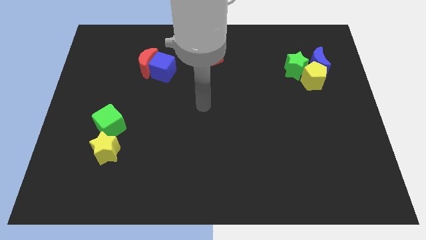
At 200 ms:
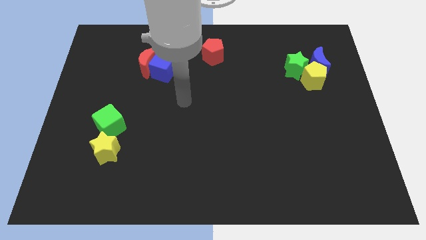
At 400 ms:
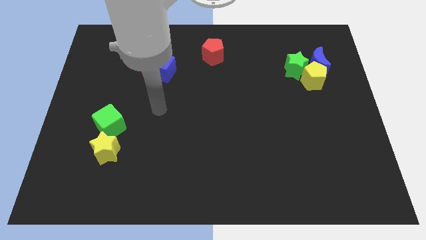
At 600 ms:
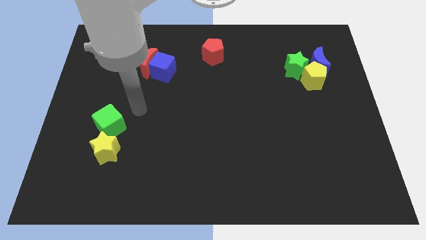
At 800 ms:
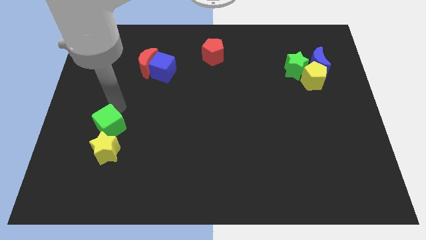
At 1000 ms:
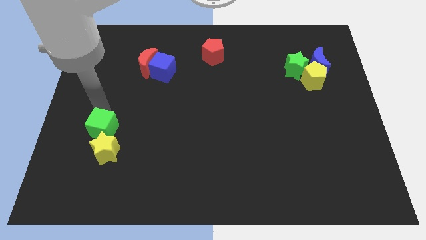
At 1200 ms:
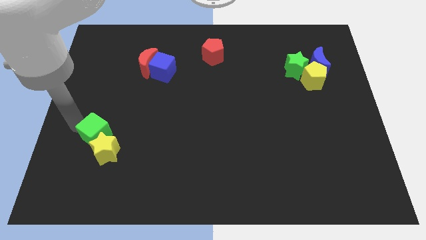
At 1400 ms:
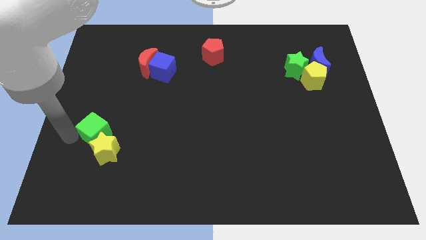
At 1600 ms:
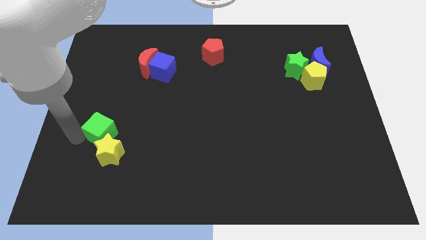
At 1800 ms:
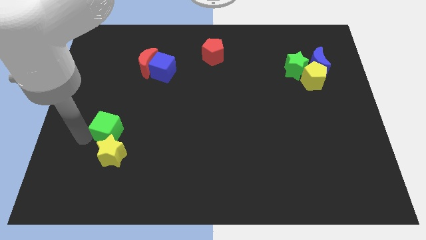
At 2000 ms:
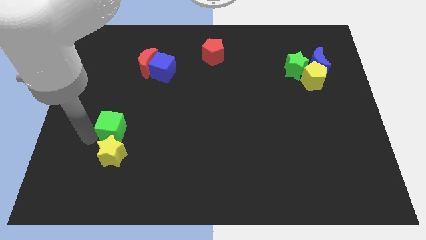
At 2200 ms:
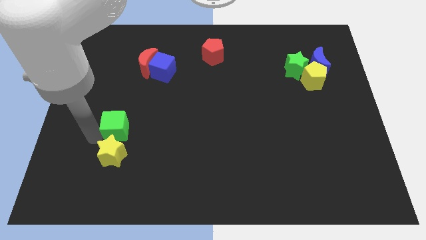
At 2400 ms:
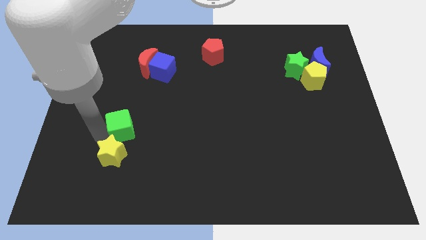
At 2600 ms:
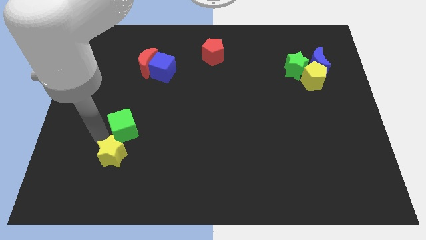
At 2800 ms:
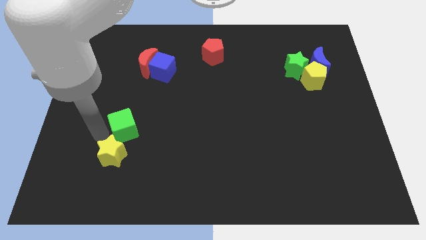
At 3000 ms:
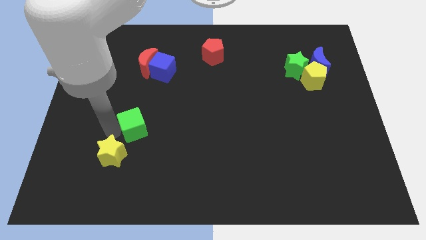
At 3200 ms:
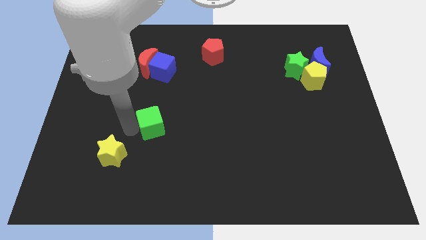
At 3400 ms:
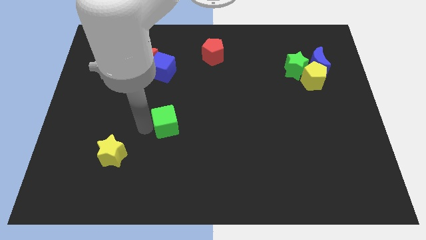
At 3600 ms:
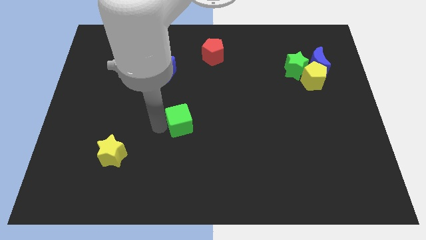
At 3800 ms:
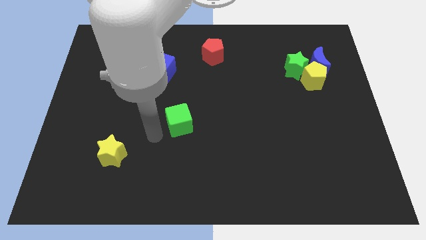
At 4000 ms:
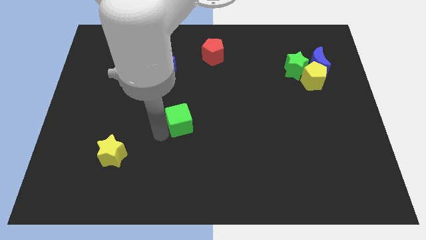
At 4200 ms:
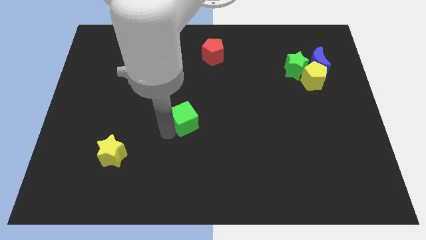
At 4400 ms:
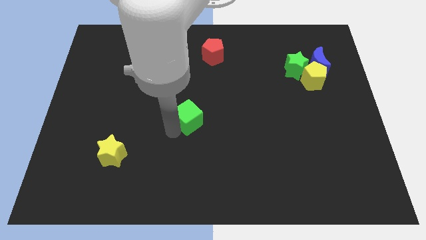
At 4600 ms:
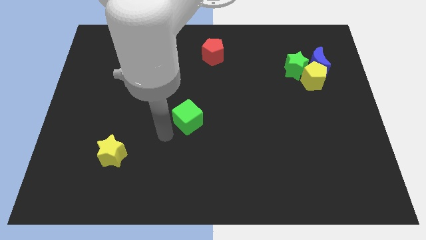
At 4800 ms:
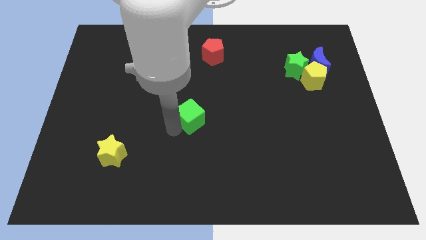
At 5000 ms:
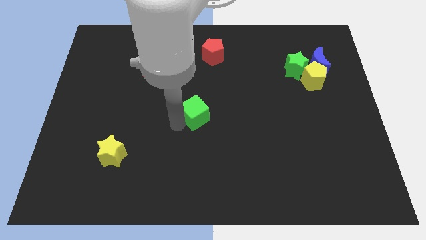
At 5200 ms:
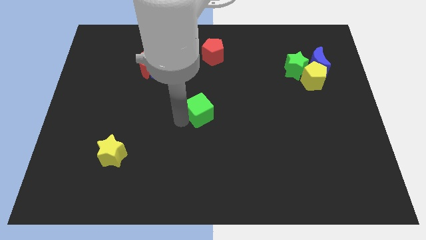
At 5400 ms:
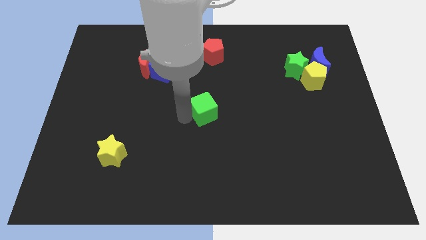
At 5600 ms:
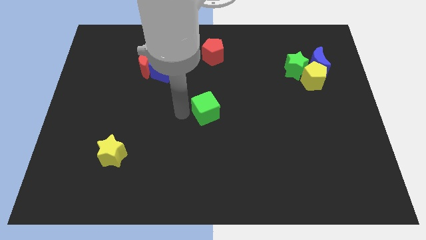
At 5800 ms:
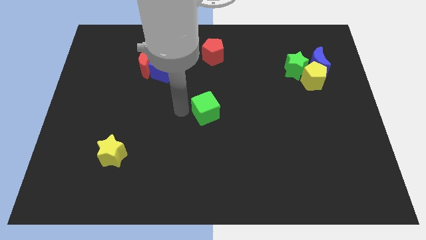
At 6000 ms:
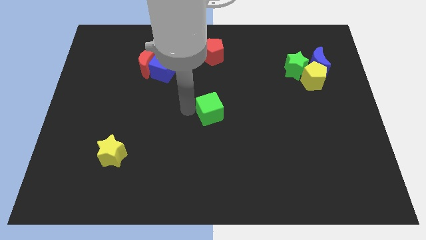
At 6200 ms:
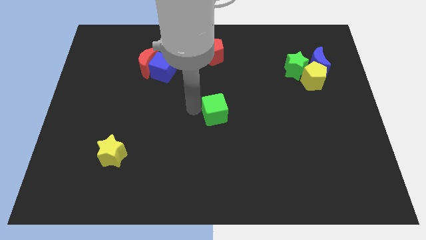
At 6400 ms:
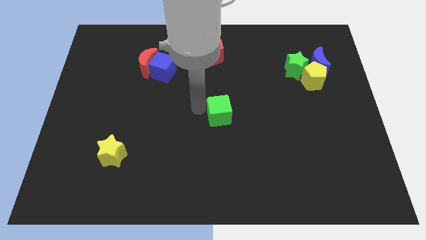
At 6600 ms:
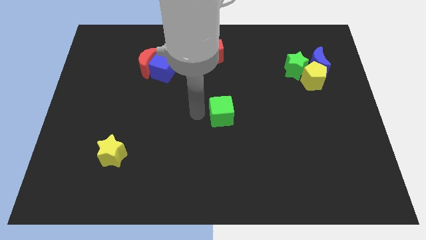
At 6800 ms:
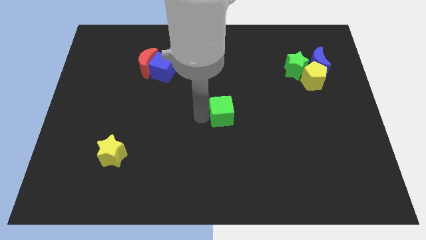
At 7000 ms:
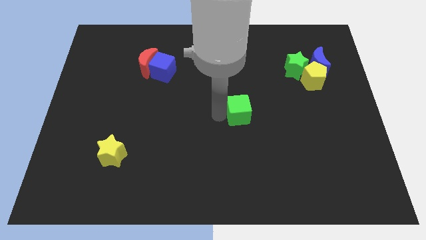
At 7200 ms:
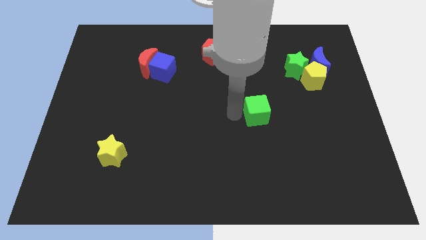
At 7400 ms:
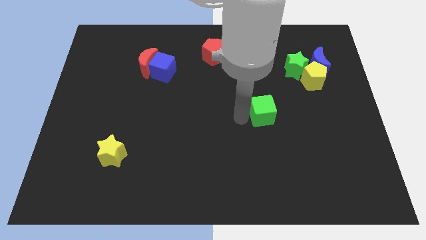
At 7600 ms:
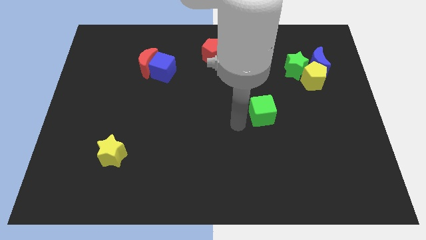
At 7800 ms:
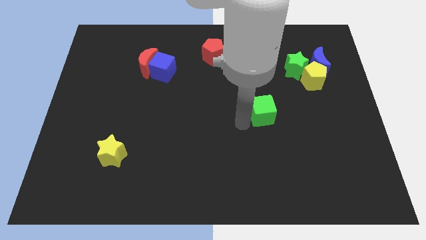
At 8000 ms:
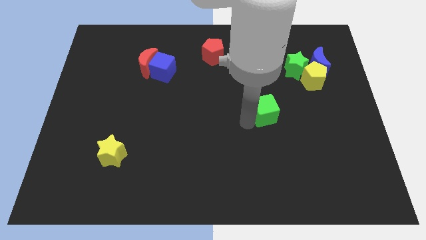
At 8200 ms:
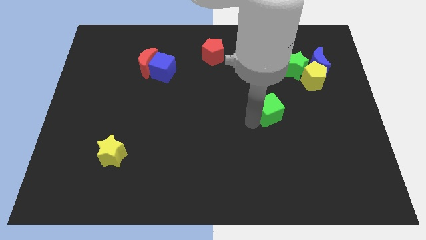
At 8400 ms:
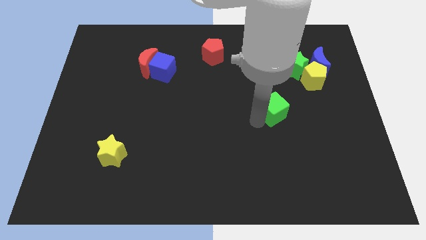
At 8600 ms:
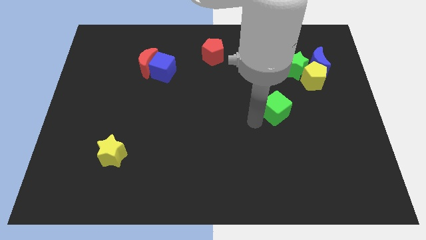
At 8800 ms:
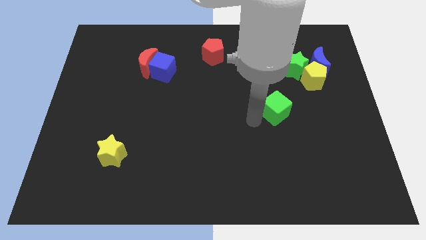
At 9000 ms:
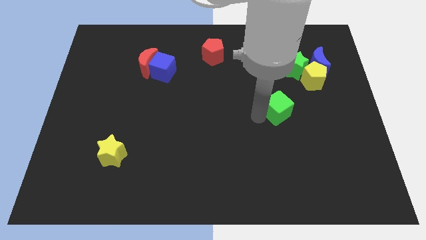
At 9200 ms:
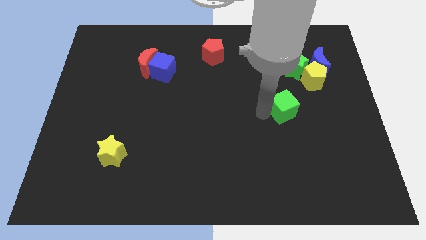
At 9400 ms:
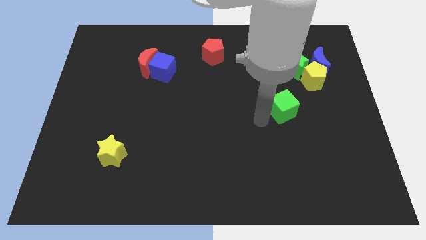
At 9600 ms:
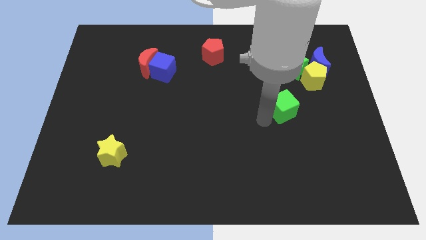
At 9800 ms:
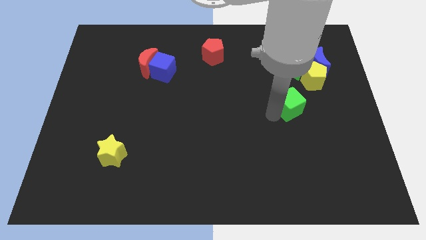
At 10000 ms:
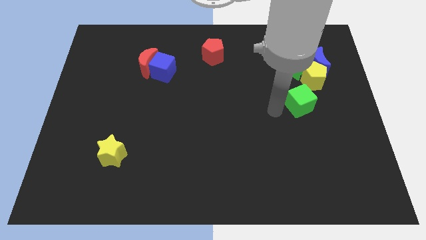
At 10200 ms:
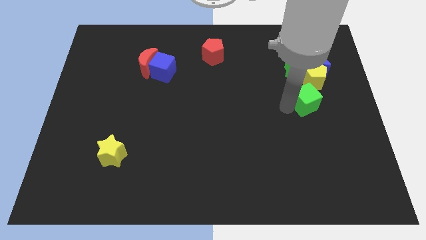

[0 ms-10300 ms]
push the green cube to the bottom side of the blue moon

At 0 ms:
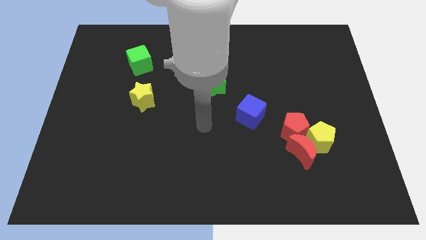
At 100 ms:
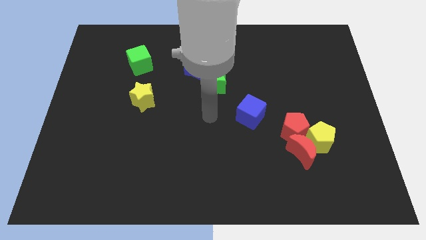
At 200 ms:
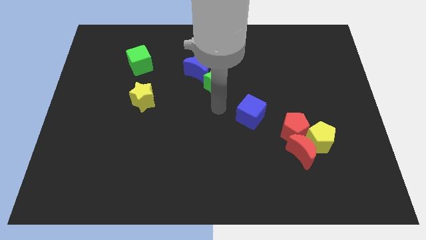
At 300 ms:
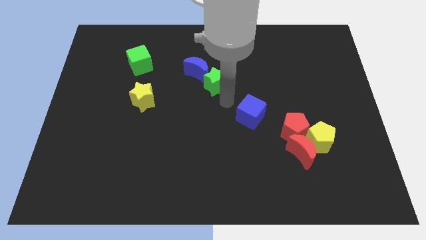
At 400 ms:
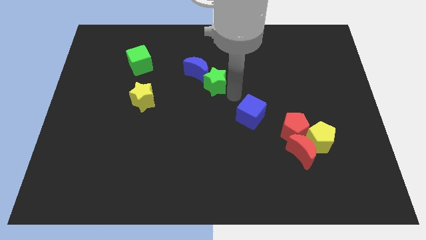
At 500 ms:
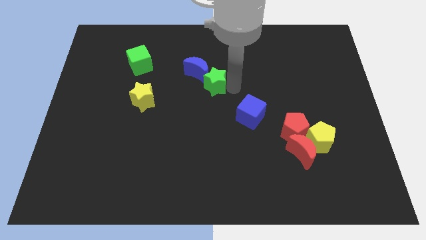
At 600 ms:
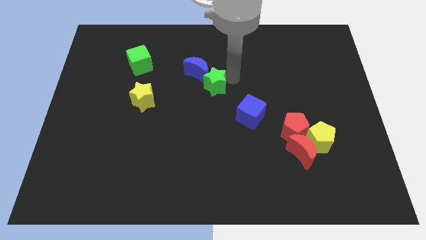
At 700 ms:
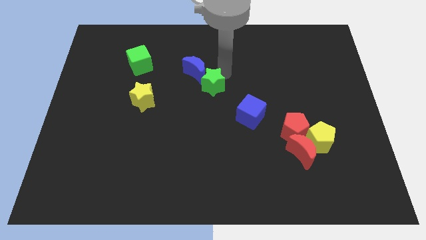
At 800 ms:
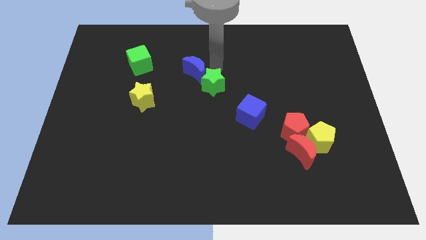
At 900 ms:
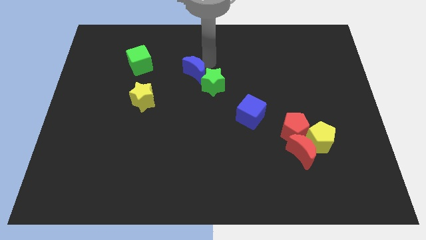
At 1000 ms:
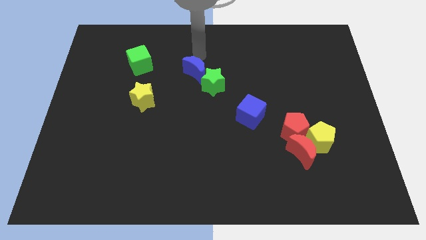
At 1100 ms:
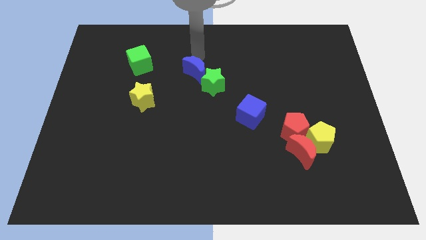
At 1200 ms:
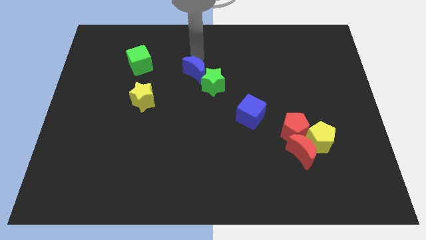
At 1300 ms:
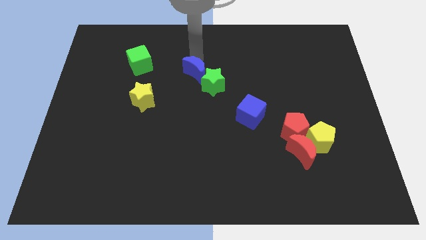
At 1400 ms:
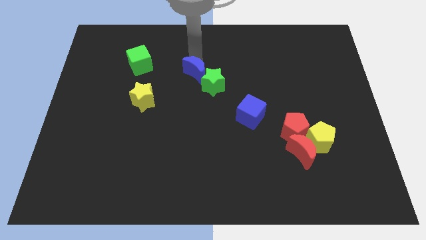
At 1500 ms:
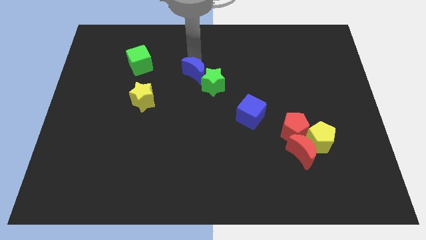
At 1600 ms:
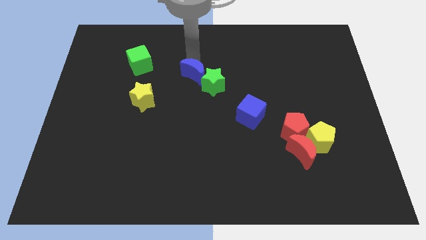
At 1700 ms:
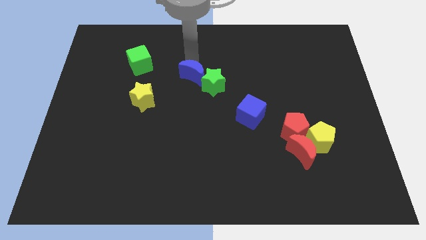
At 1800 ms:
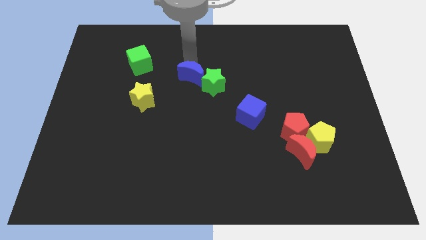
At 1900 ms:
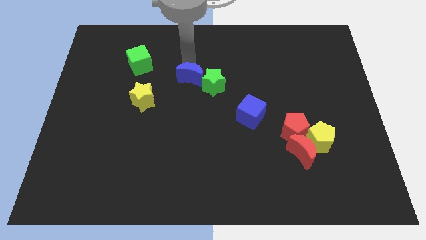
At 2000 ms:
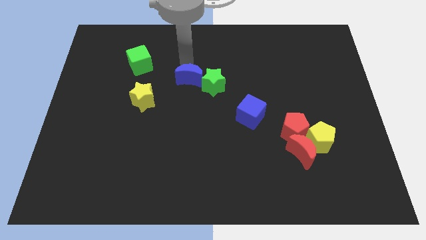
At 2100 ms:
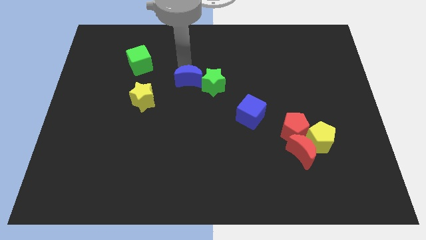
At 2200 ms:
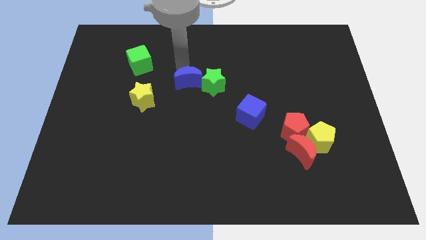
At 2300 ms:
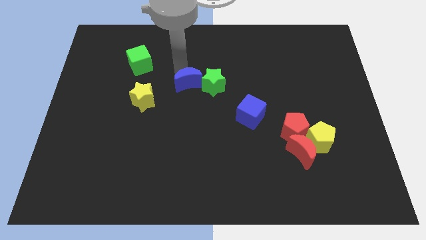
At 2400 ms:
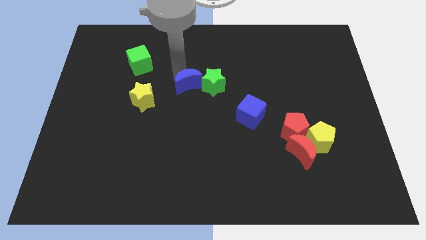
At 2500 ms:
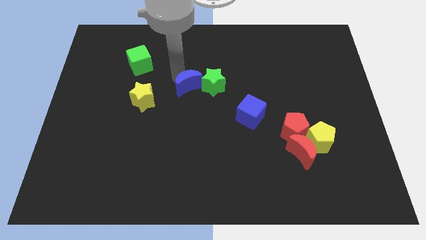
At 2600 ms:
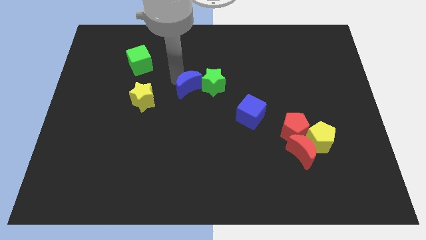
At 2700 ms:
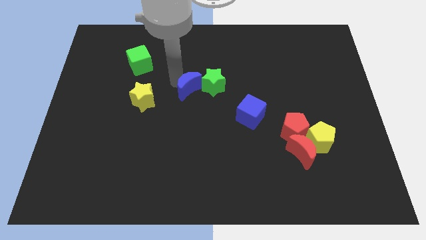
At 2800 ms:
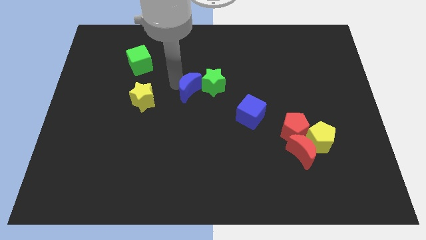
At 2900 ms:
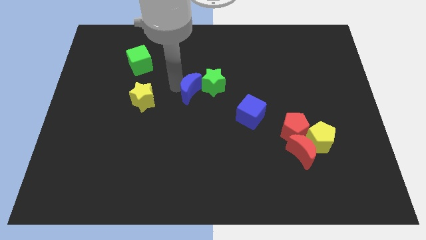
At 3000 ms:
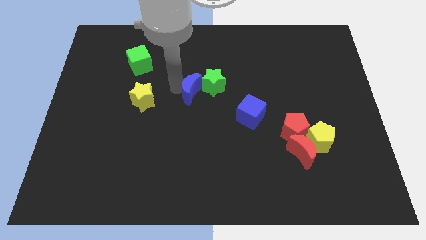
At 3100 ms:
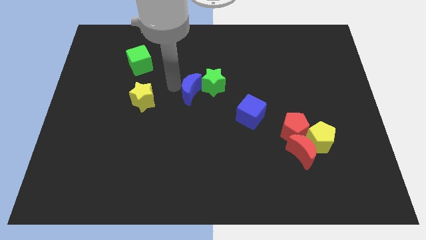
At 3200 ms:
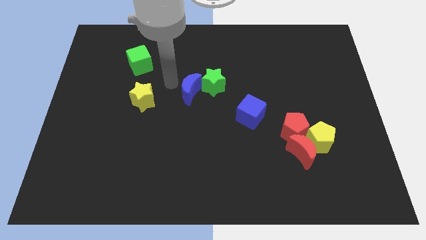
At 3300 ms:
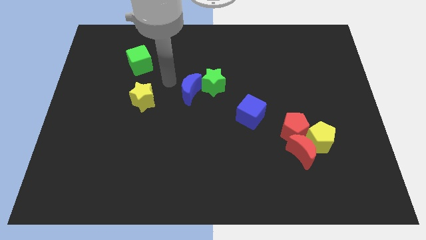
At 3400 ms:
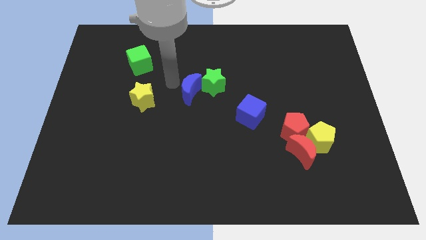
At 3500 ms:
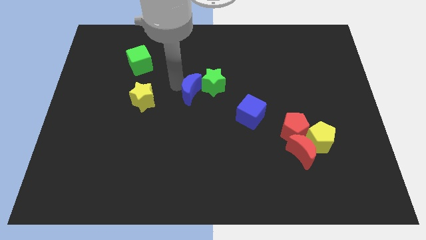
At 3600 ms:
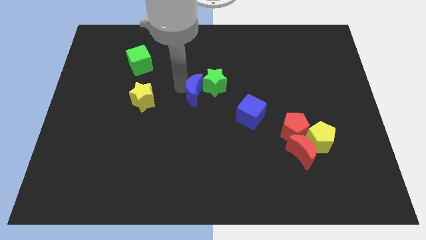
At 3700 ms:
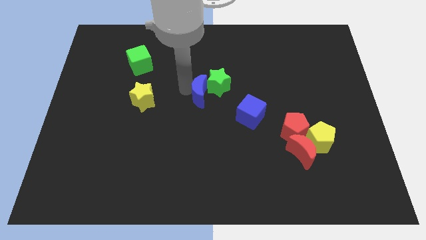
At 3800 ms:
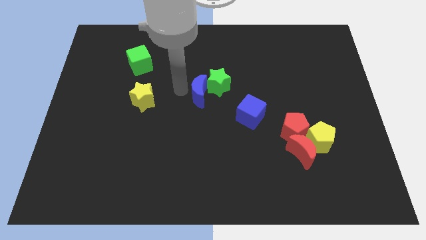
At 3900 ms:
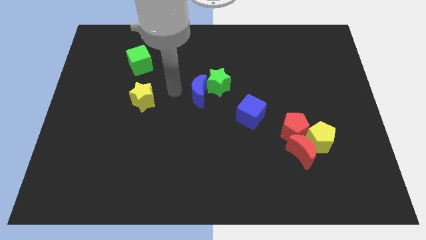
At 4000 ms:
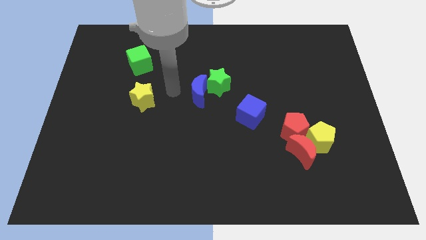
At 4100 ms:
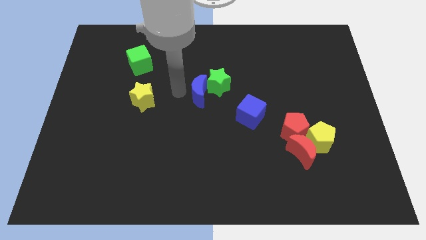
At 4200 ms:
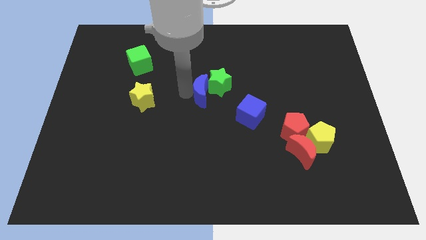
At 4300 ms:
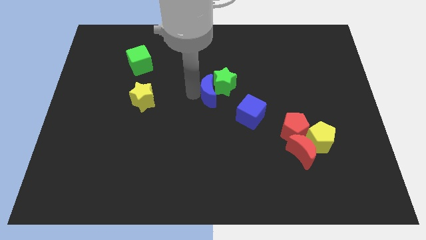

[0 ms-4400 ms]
put the blue moon diagonally up and to the left of the blue cube
